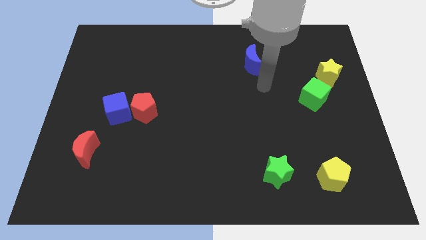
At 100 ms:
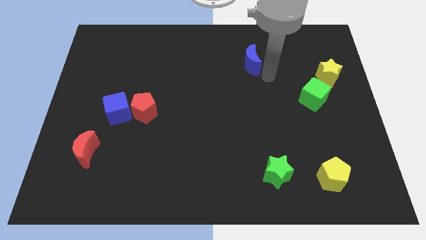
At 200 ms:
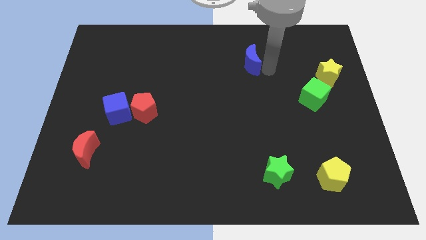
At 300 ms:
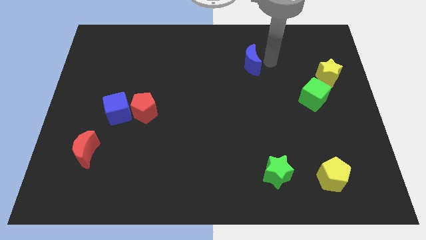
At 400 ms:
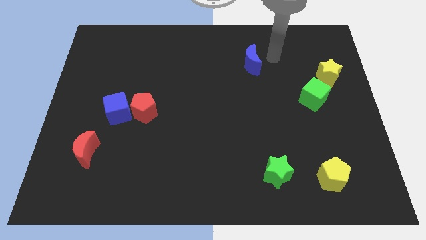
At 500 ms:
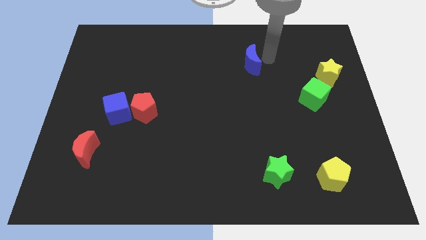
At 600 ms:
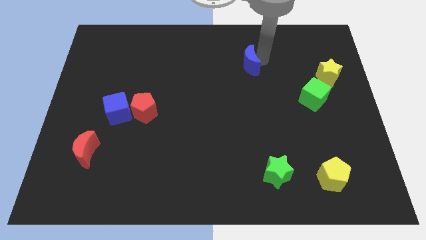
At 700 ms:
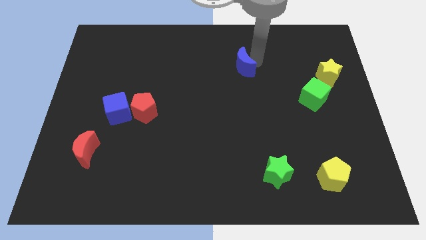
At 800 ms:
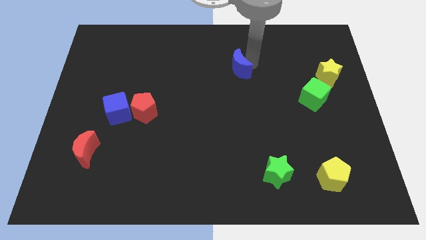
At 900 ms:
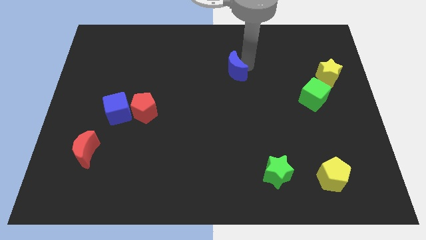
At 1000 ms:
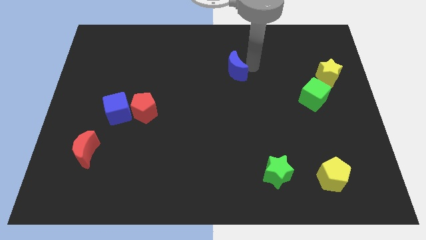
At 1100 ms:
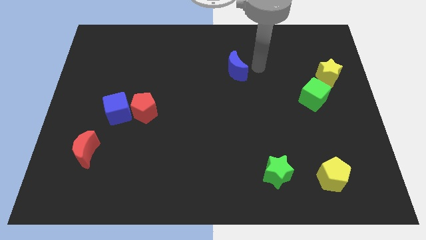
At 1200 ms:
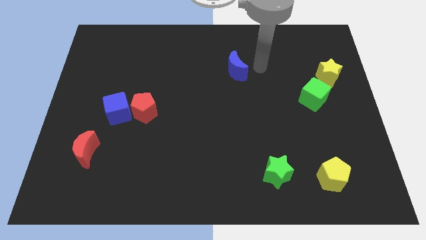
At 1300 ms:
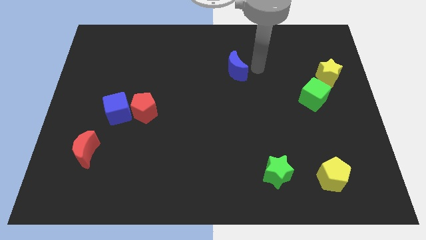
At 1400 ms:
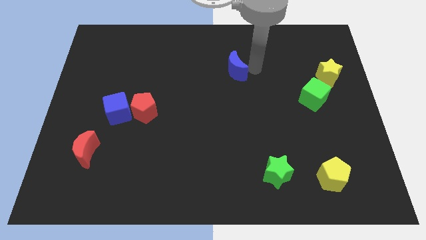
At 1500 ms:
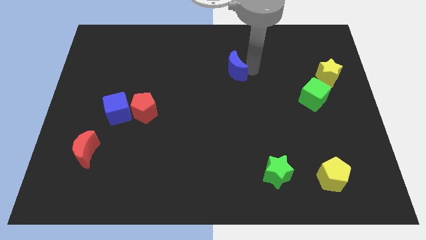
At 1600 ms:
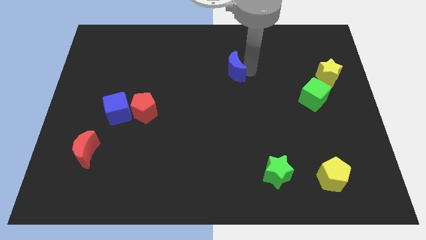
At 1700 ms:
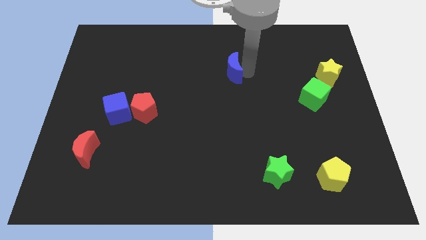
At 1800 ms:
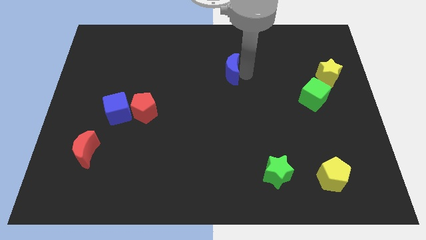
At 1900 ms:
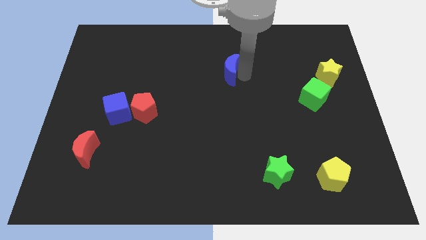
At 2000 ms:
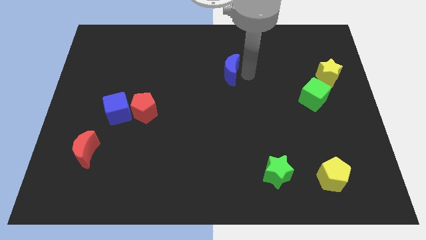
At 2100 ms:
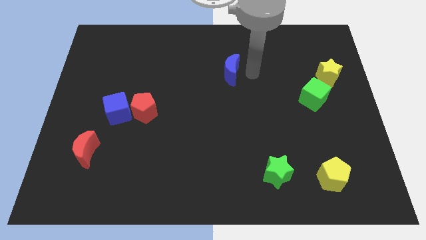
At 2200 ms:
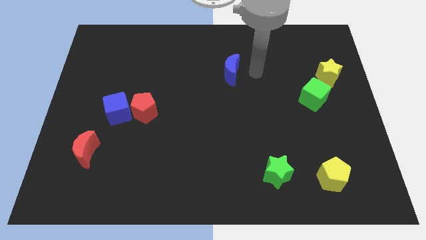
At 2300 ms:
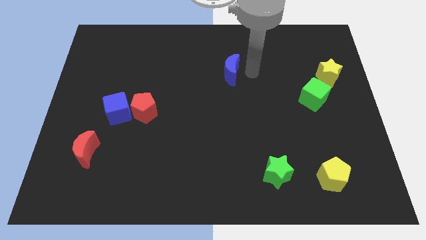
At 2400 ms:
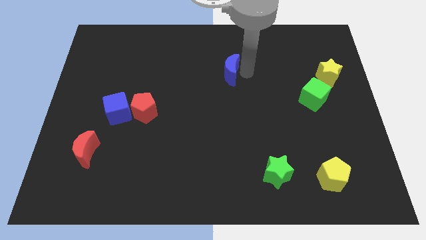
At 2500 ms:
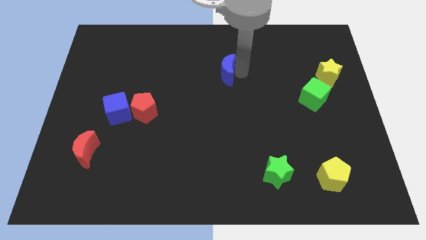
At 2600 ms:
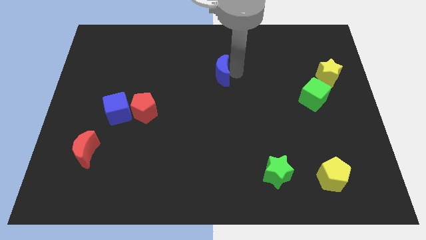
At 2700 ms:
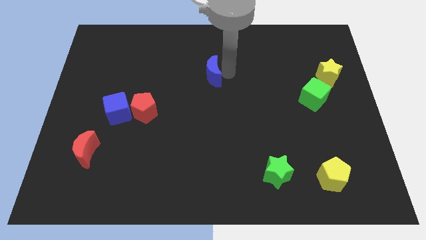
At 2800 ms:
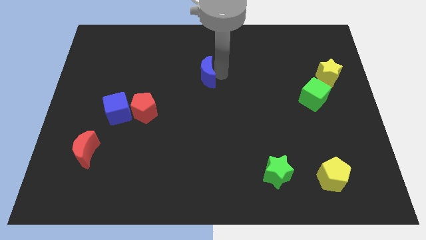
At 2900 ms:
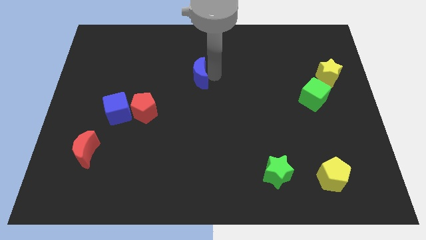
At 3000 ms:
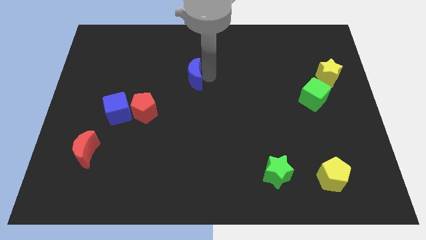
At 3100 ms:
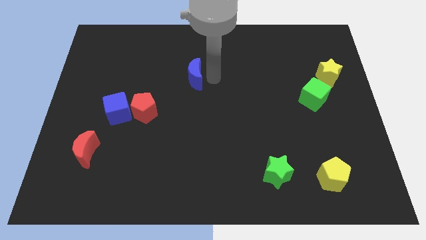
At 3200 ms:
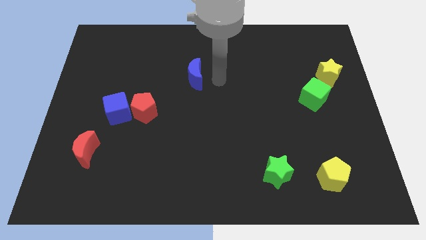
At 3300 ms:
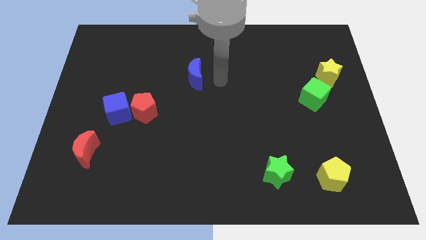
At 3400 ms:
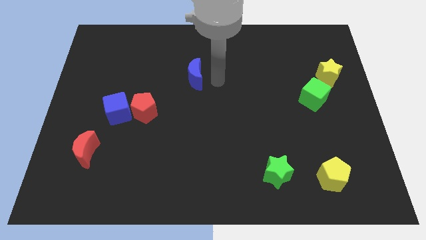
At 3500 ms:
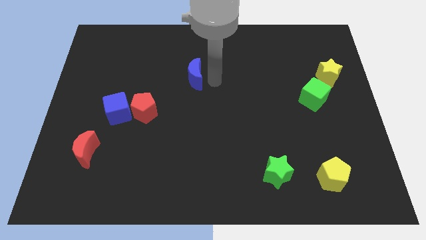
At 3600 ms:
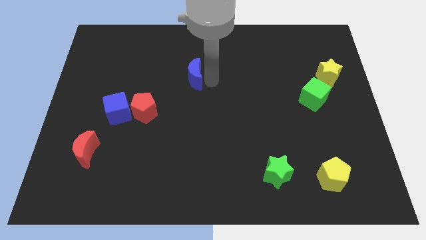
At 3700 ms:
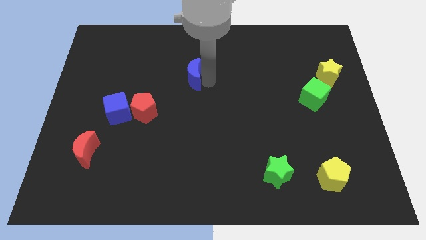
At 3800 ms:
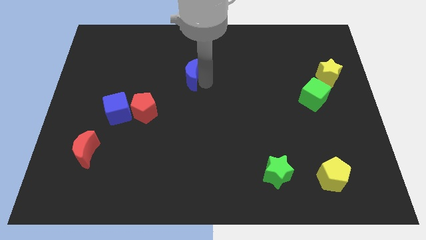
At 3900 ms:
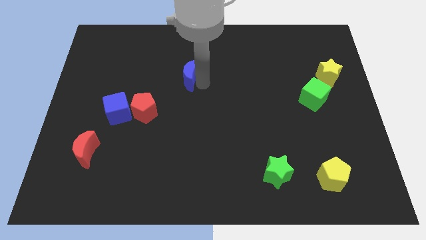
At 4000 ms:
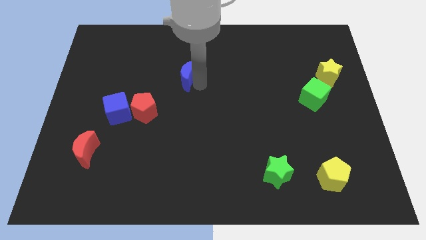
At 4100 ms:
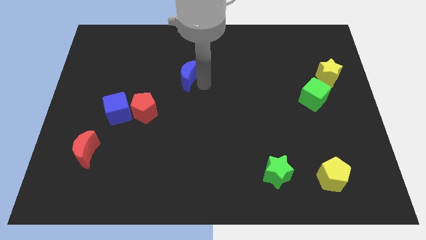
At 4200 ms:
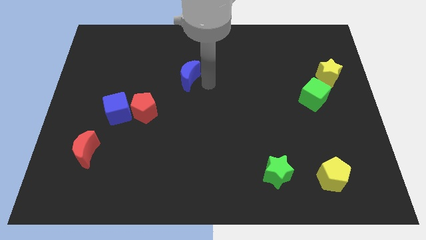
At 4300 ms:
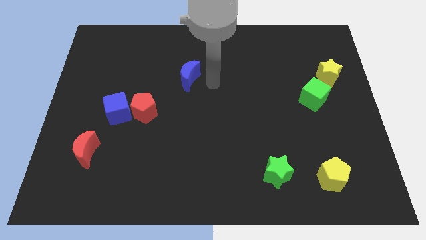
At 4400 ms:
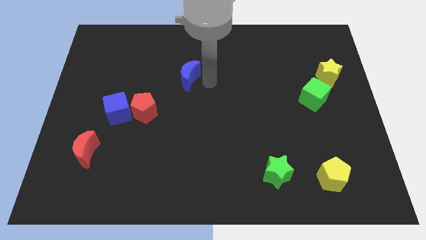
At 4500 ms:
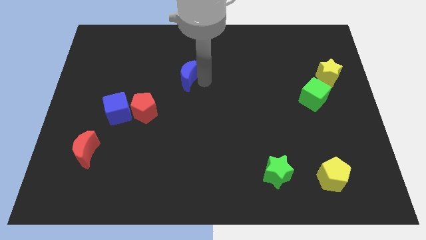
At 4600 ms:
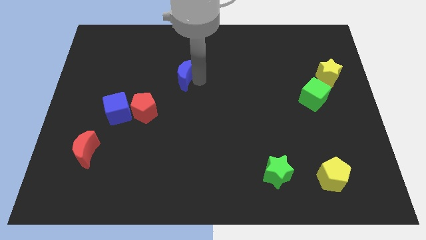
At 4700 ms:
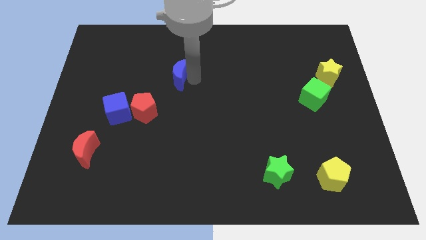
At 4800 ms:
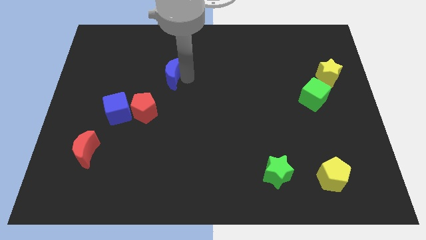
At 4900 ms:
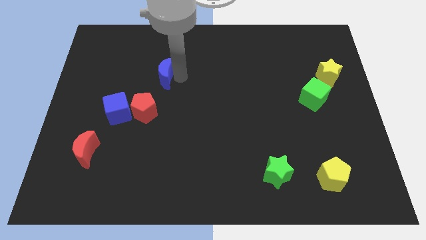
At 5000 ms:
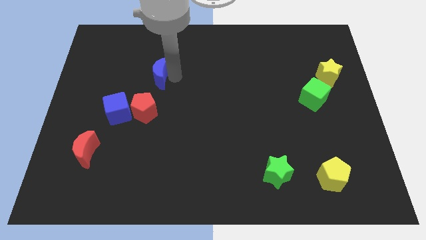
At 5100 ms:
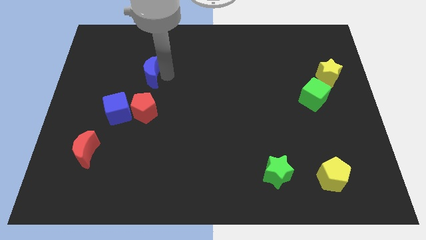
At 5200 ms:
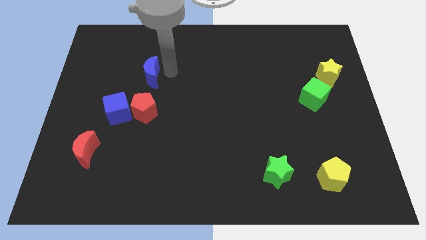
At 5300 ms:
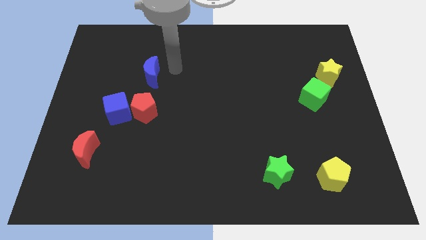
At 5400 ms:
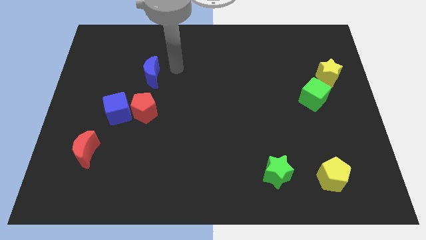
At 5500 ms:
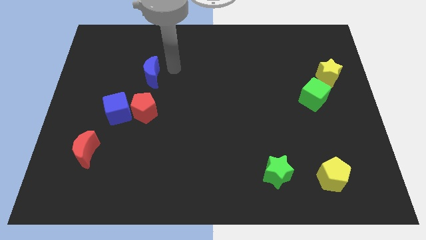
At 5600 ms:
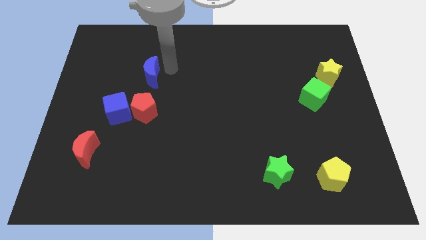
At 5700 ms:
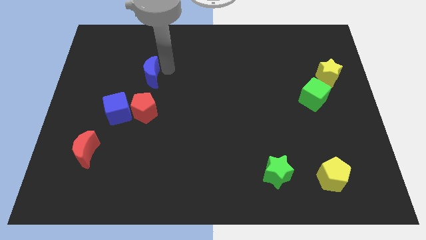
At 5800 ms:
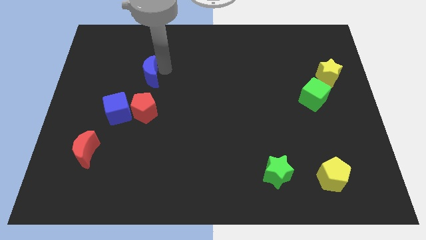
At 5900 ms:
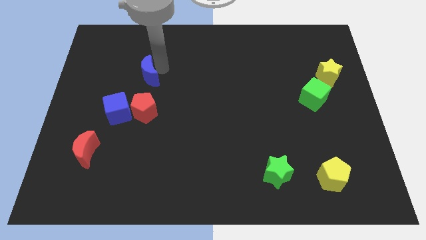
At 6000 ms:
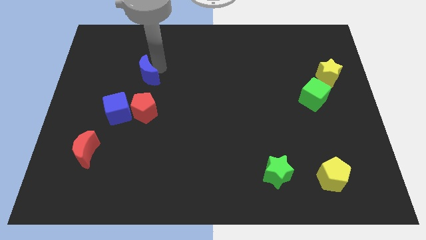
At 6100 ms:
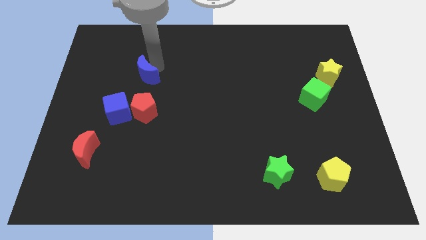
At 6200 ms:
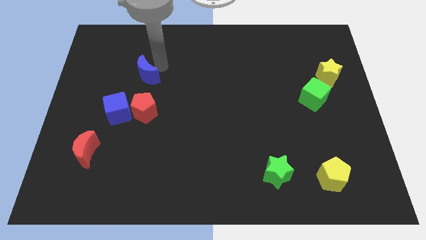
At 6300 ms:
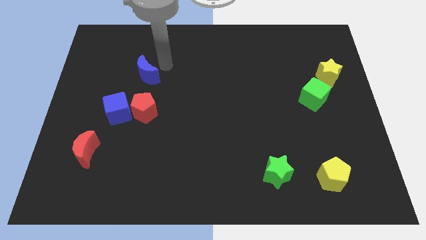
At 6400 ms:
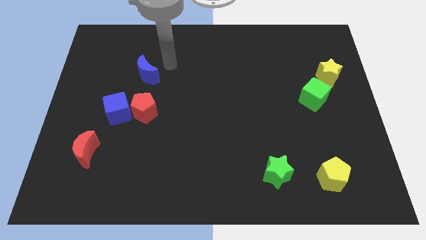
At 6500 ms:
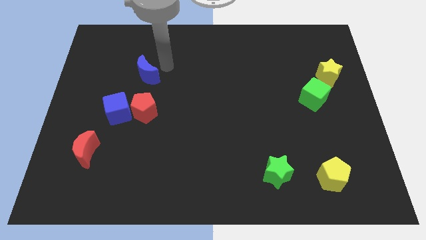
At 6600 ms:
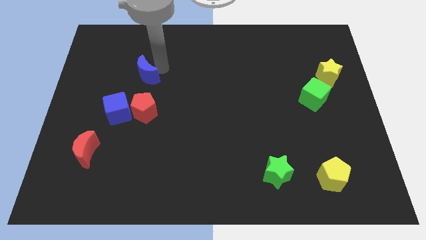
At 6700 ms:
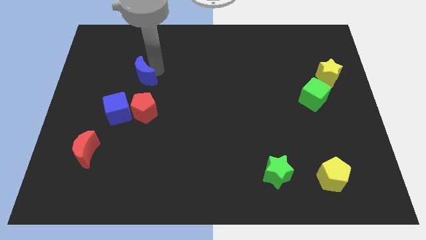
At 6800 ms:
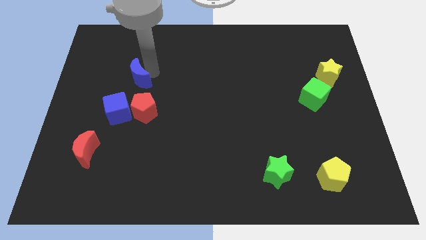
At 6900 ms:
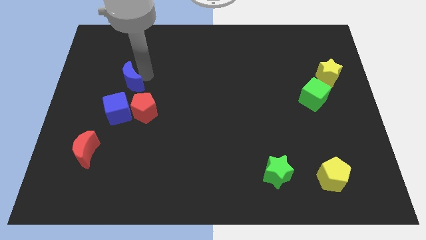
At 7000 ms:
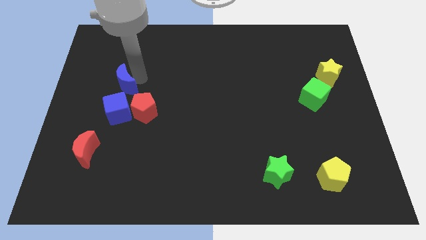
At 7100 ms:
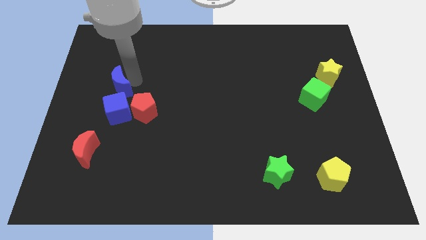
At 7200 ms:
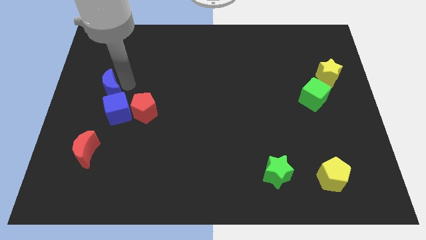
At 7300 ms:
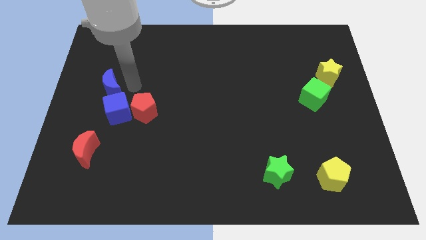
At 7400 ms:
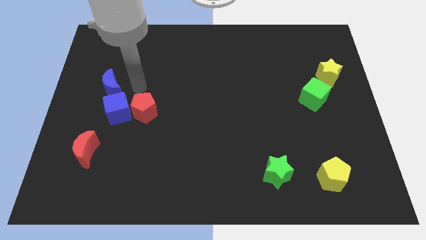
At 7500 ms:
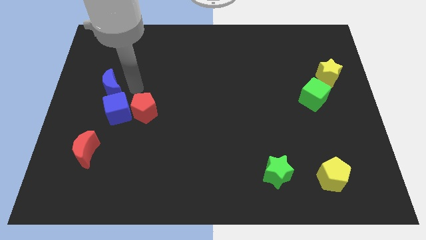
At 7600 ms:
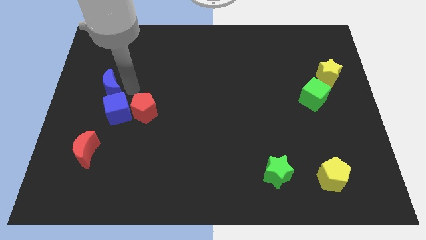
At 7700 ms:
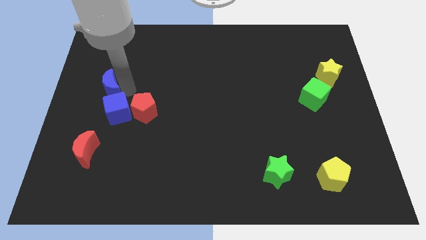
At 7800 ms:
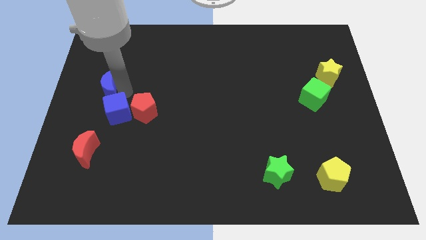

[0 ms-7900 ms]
move the blue moon to the left side

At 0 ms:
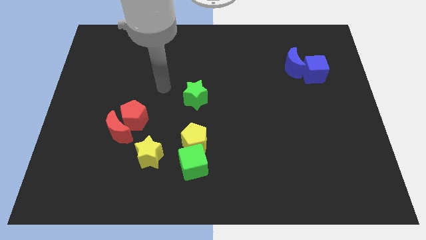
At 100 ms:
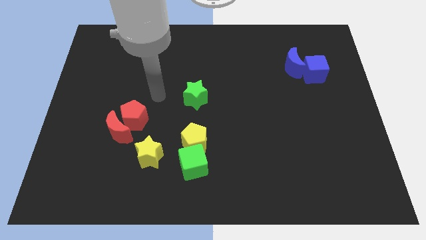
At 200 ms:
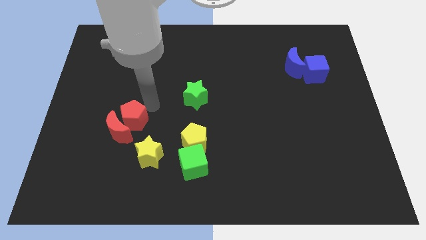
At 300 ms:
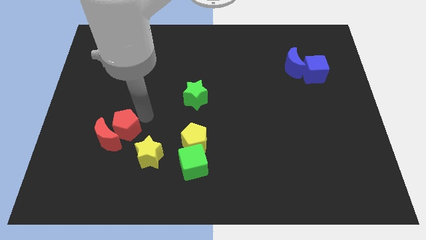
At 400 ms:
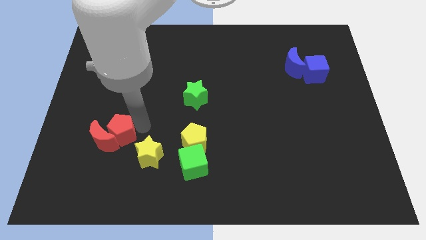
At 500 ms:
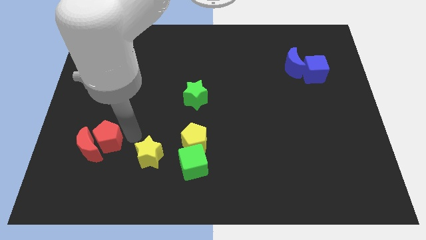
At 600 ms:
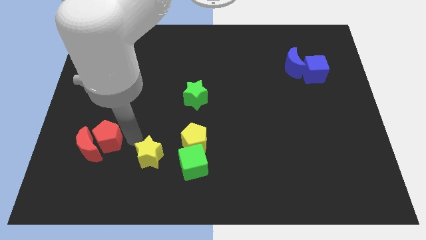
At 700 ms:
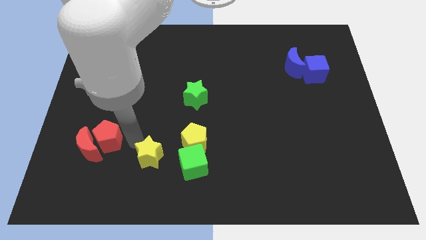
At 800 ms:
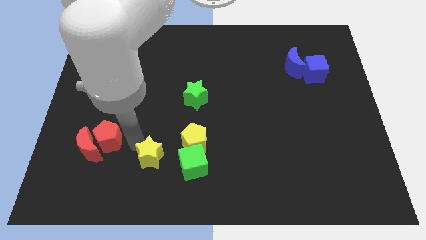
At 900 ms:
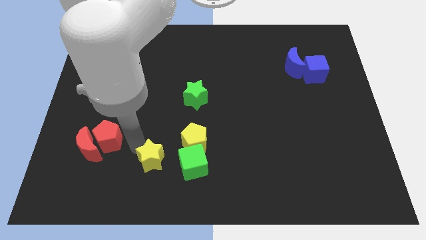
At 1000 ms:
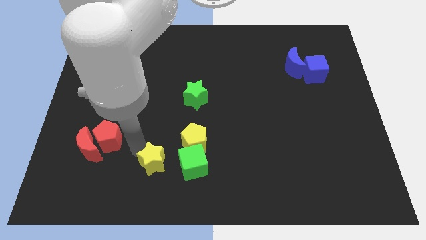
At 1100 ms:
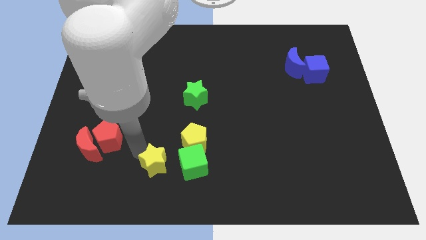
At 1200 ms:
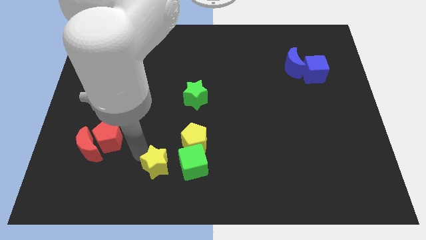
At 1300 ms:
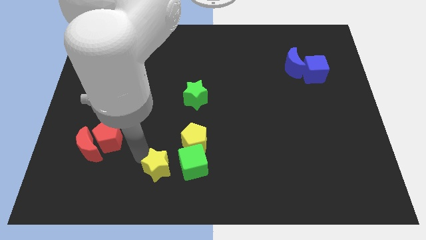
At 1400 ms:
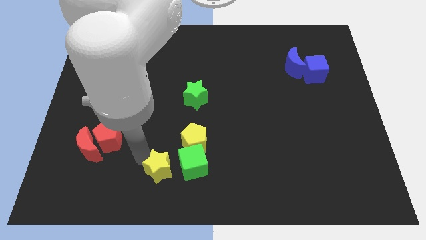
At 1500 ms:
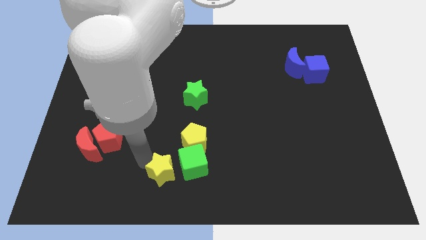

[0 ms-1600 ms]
put the yellow star to the bottom
